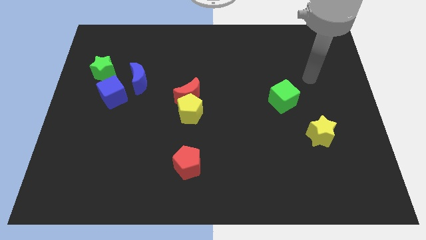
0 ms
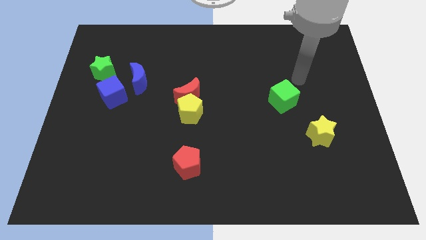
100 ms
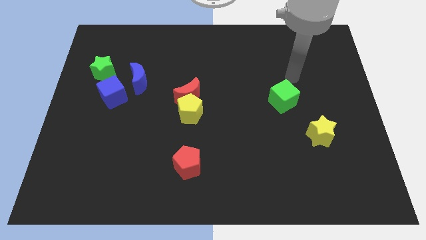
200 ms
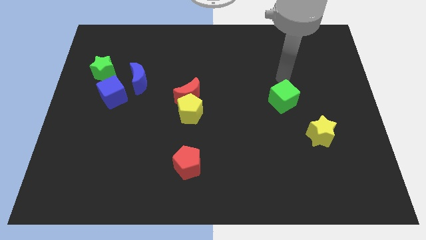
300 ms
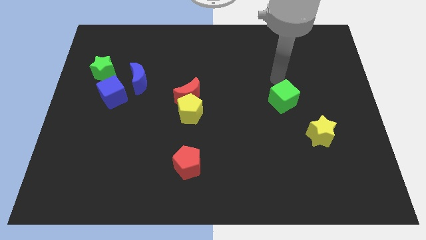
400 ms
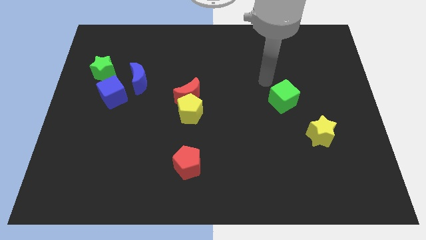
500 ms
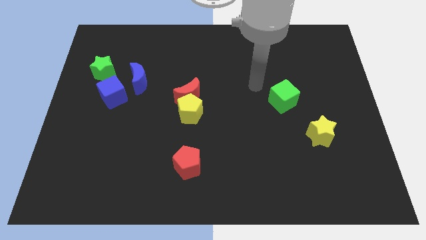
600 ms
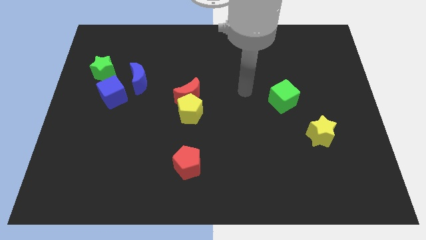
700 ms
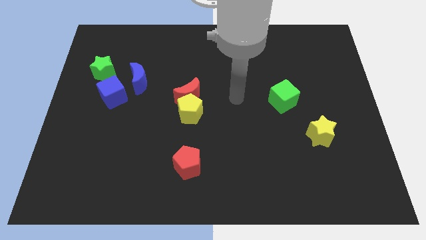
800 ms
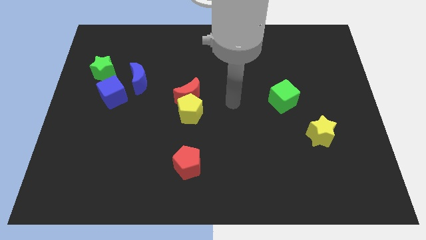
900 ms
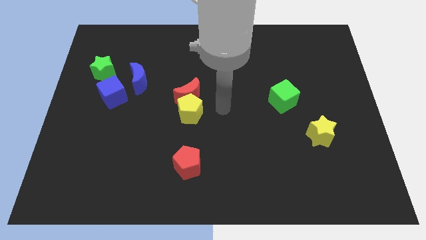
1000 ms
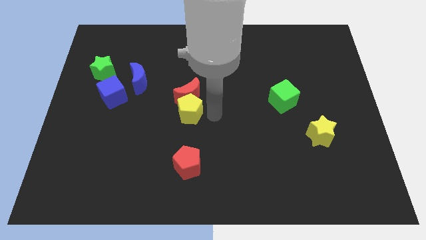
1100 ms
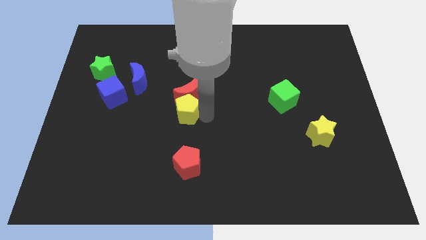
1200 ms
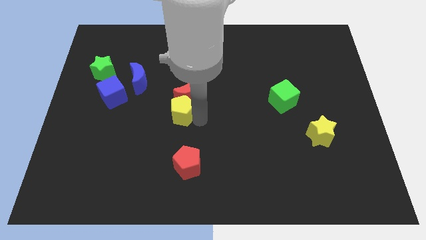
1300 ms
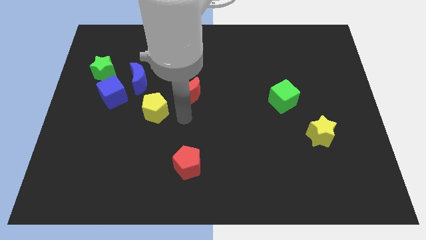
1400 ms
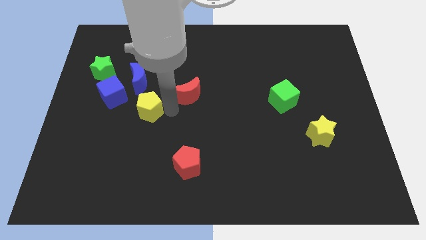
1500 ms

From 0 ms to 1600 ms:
move the red moon away from the yellow pentagon

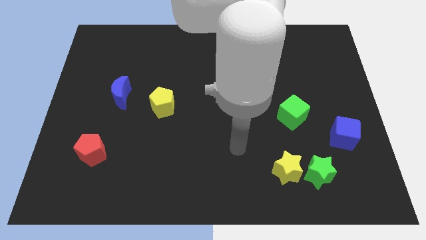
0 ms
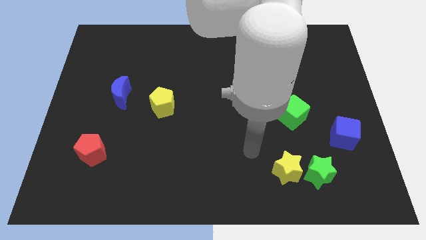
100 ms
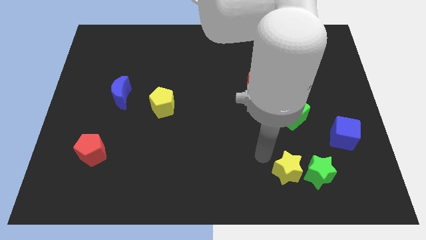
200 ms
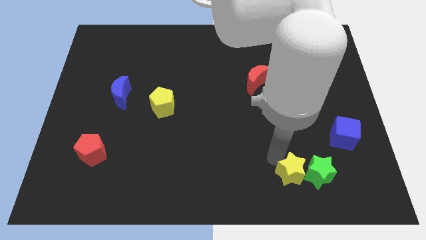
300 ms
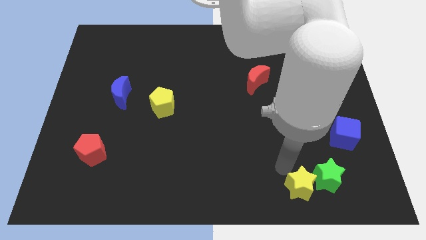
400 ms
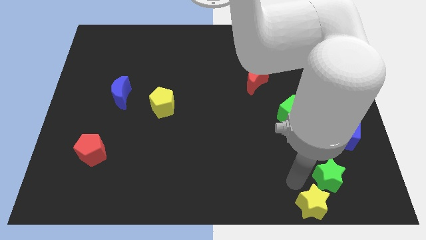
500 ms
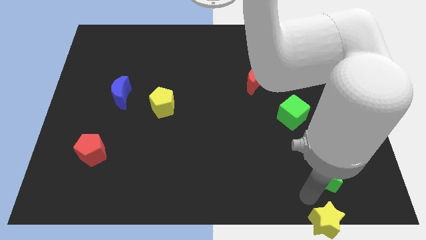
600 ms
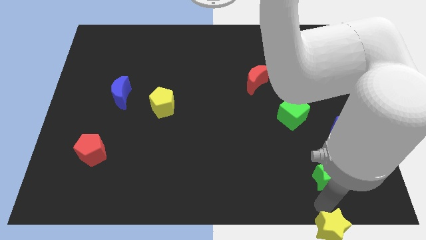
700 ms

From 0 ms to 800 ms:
move the green star away from the yellow star

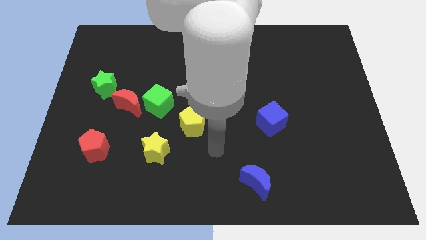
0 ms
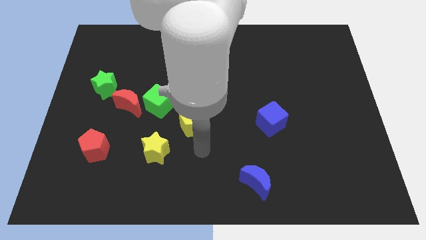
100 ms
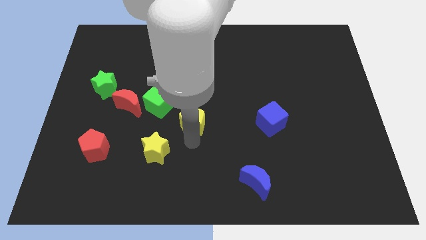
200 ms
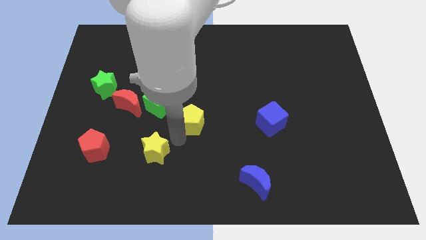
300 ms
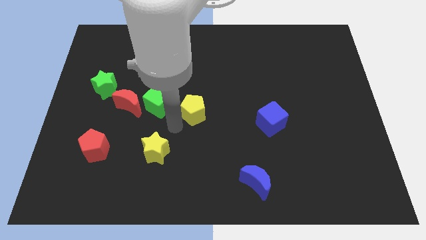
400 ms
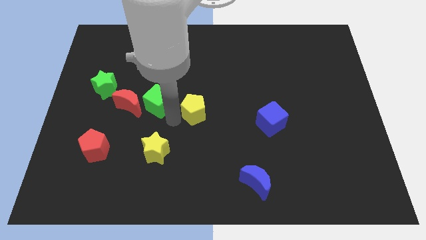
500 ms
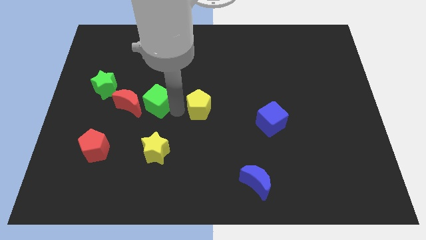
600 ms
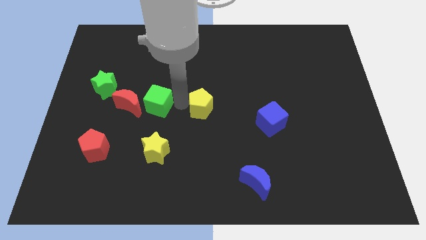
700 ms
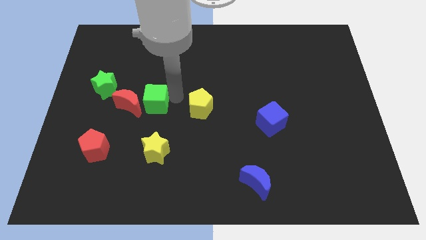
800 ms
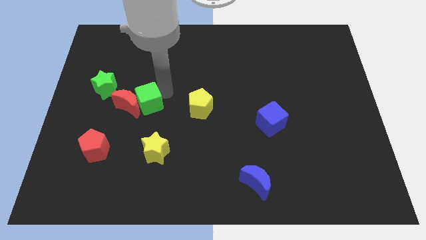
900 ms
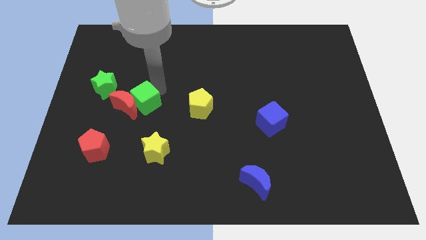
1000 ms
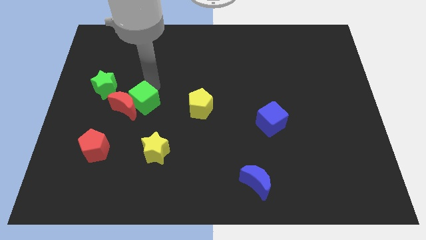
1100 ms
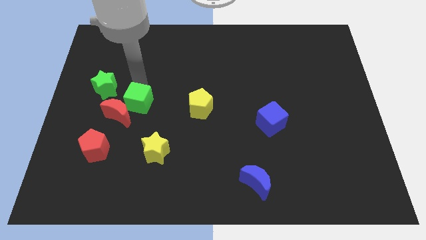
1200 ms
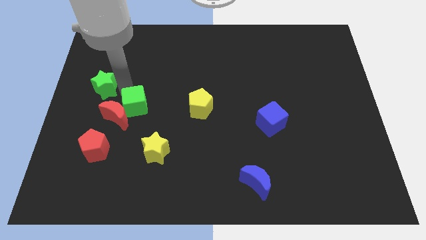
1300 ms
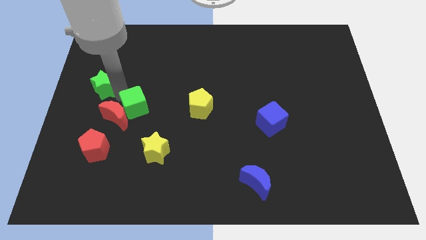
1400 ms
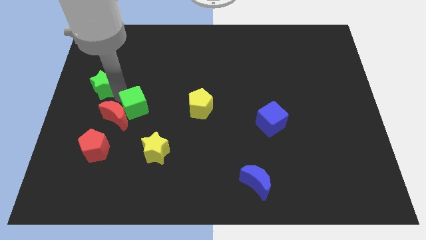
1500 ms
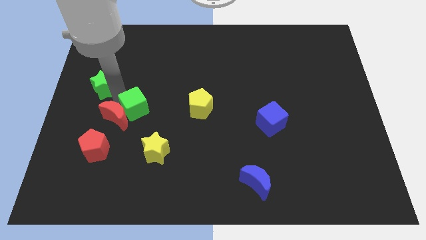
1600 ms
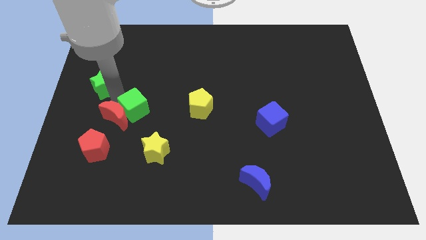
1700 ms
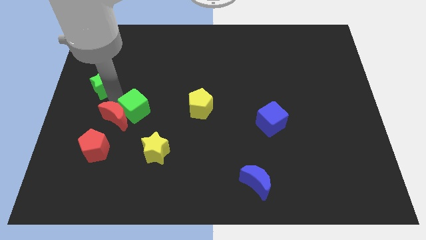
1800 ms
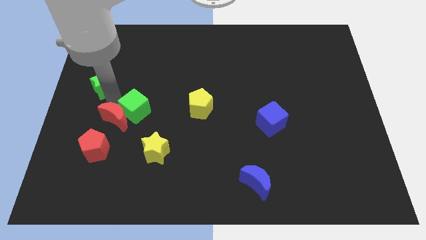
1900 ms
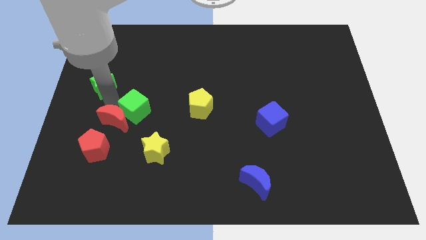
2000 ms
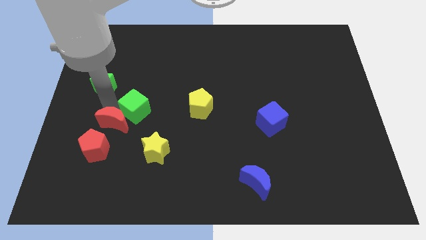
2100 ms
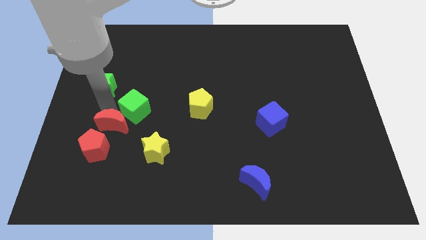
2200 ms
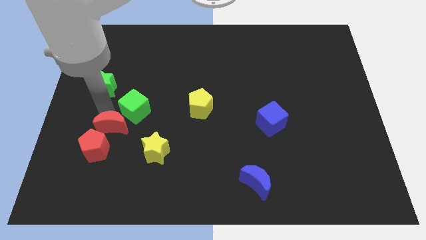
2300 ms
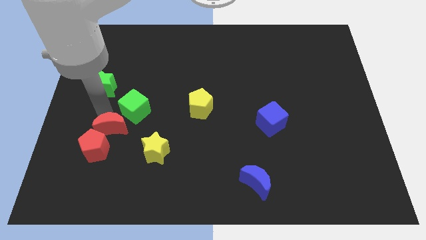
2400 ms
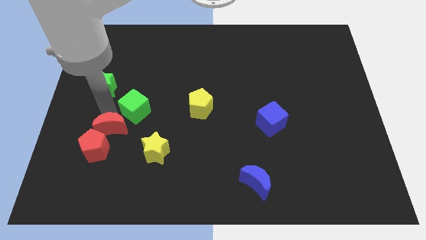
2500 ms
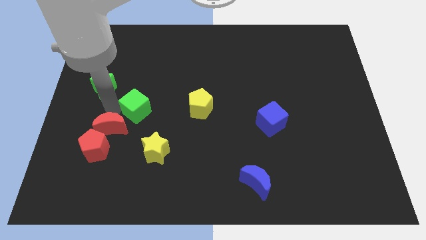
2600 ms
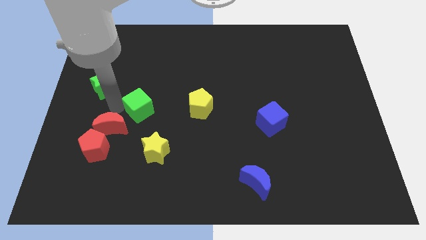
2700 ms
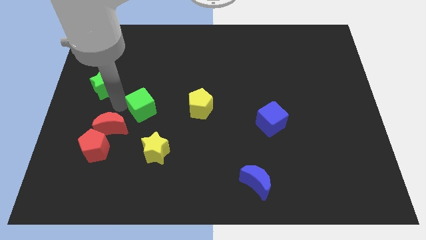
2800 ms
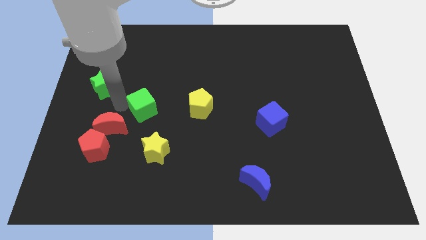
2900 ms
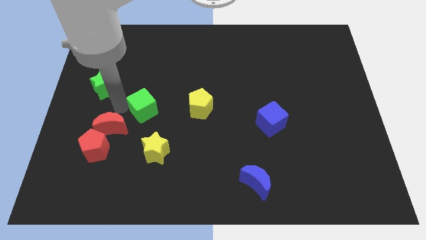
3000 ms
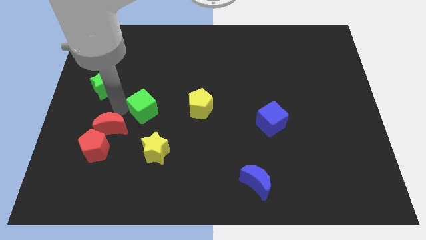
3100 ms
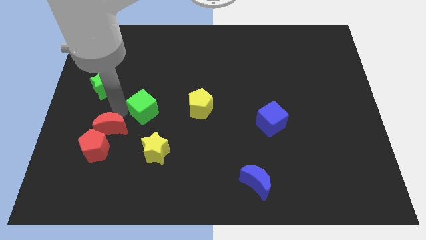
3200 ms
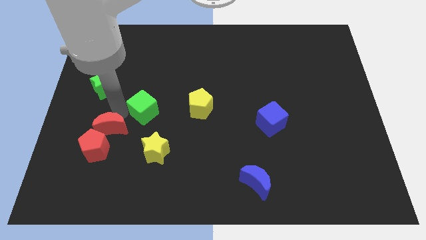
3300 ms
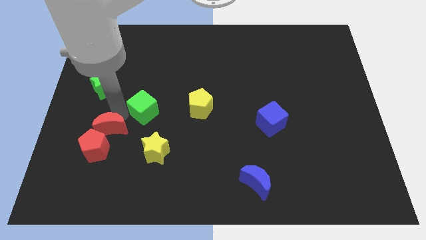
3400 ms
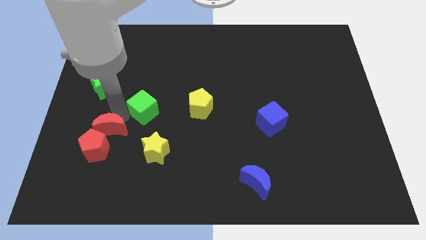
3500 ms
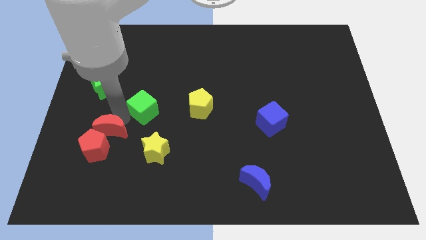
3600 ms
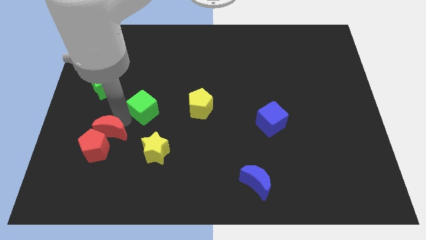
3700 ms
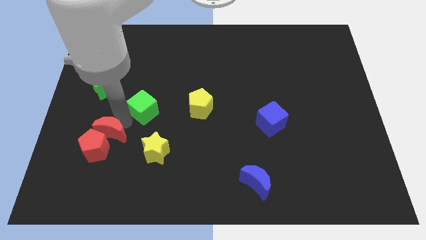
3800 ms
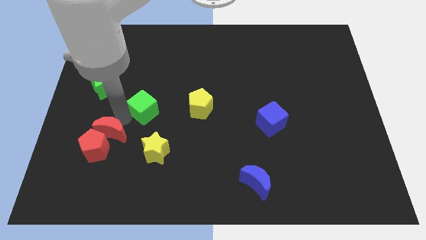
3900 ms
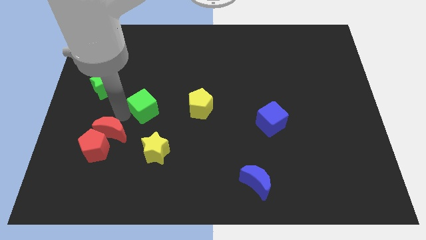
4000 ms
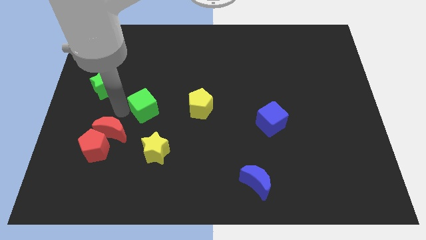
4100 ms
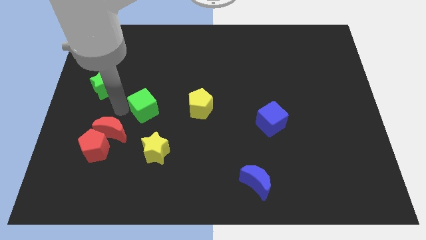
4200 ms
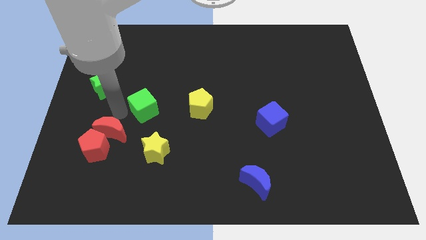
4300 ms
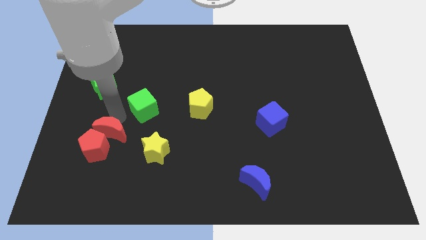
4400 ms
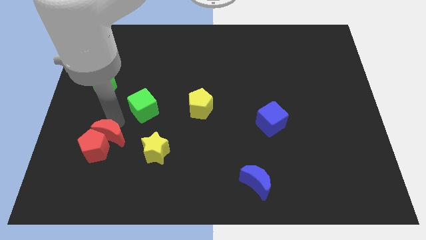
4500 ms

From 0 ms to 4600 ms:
separate the red moon from the green cube and green star

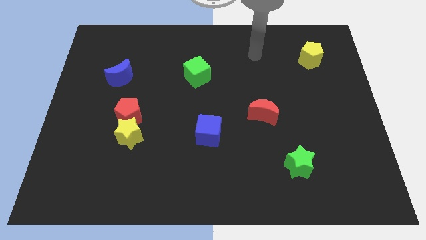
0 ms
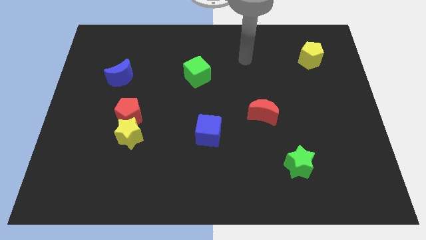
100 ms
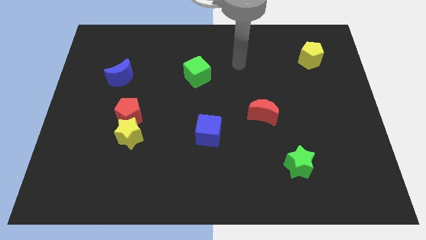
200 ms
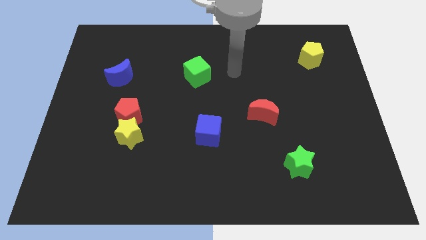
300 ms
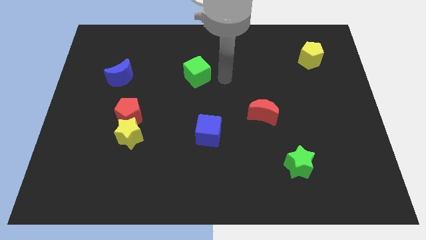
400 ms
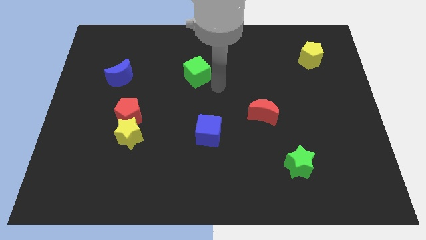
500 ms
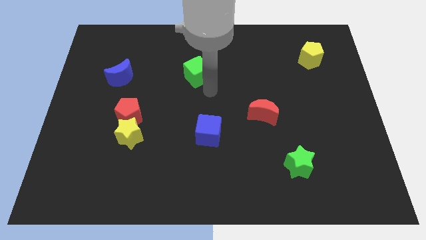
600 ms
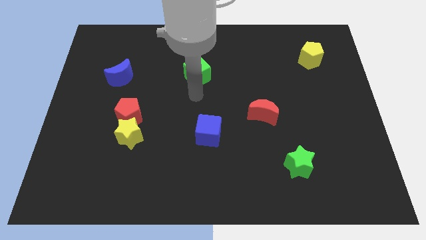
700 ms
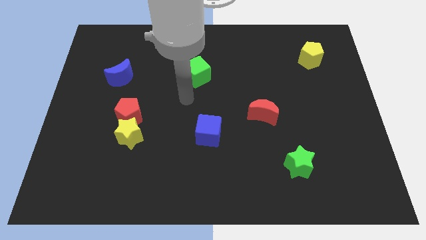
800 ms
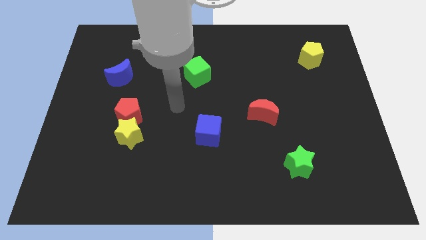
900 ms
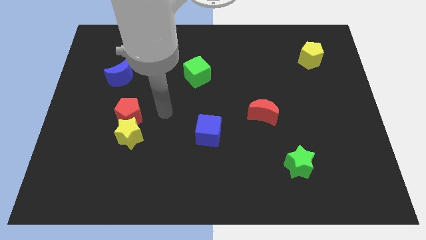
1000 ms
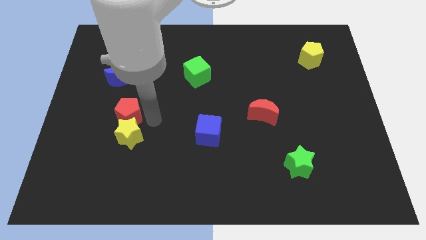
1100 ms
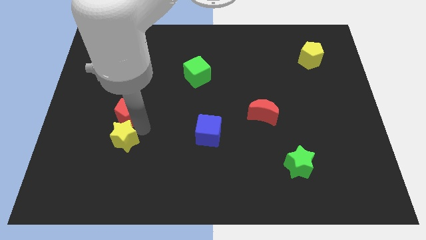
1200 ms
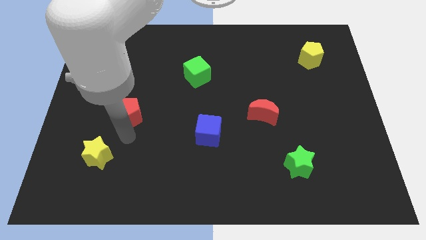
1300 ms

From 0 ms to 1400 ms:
separate the red pentagon from the yellow star

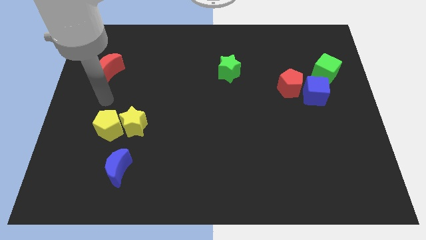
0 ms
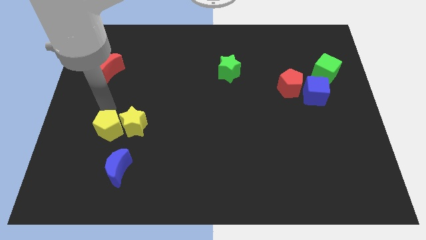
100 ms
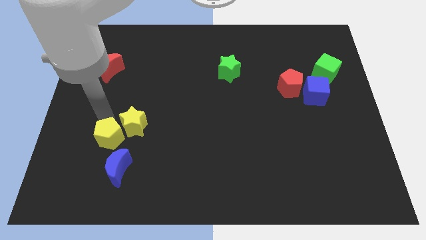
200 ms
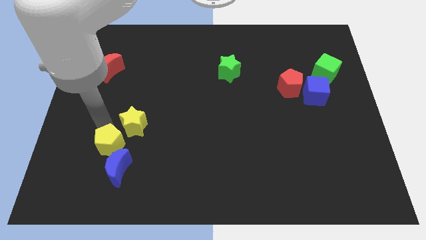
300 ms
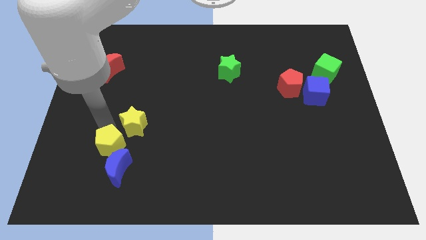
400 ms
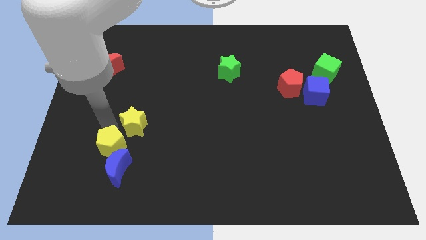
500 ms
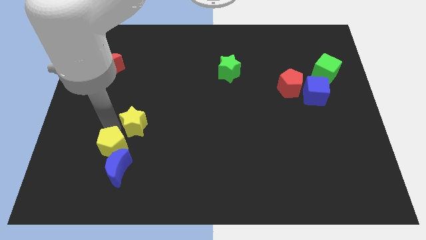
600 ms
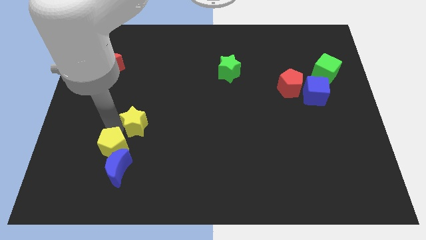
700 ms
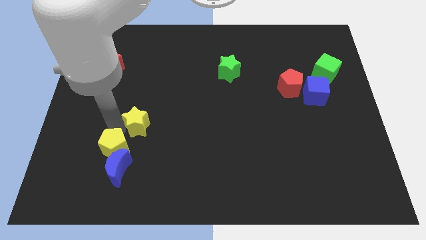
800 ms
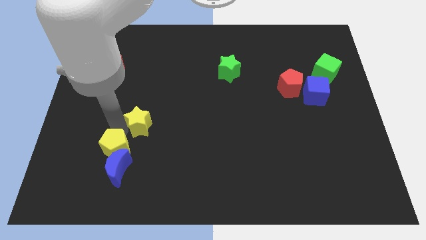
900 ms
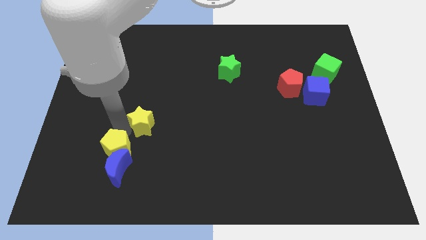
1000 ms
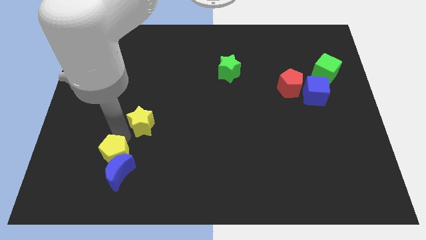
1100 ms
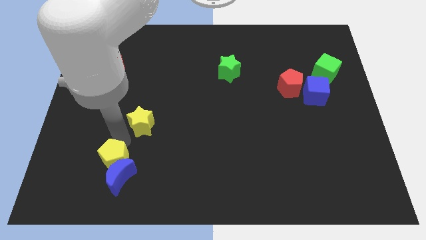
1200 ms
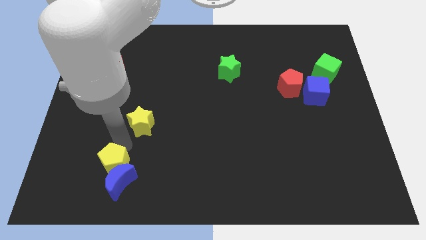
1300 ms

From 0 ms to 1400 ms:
move the yellow star away from the yellow pentagon
